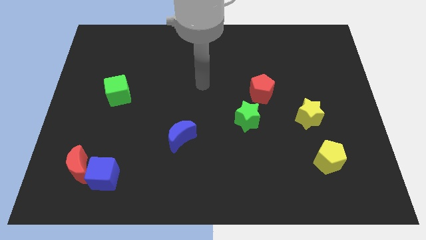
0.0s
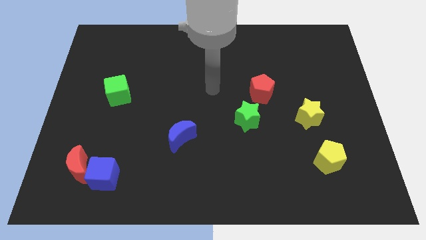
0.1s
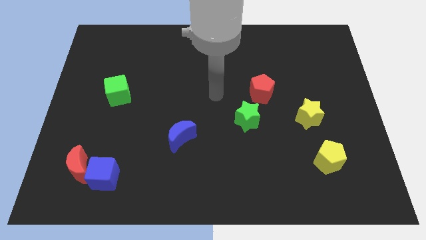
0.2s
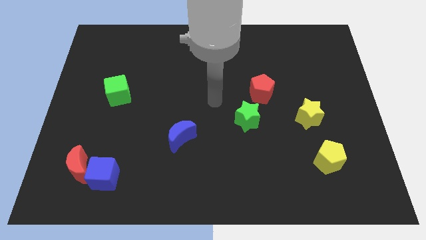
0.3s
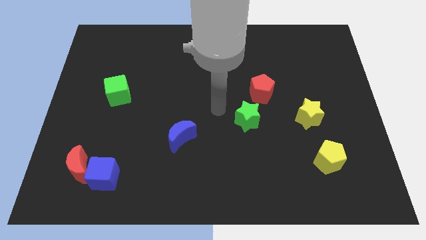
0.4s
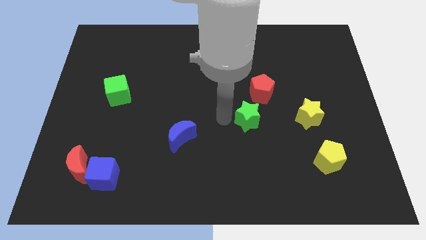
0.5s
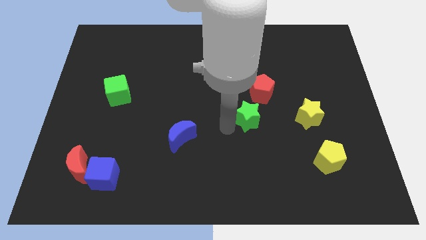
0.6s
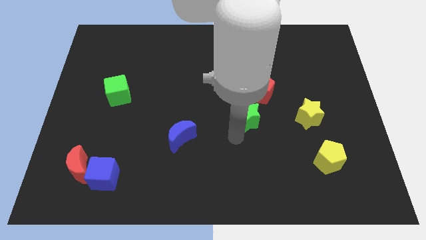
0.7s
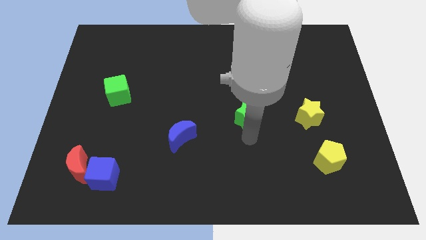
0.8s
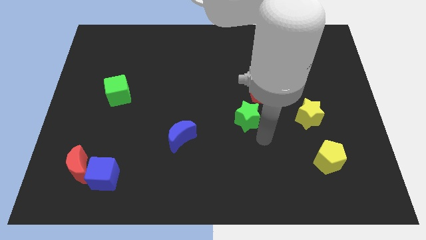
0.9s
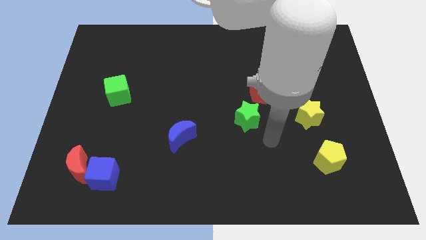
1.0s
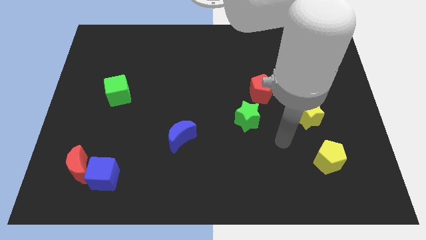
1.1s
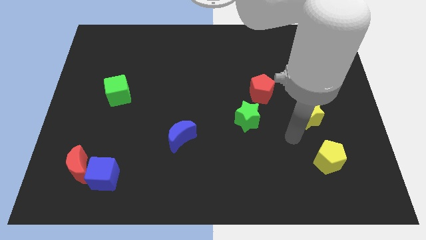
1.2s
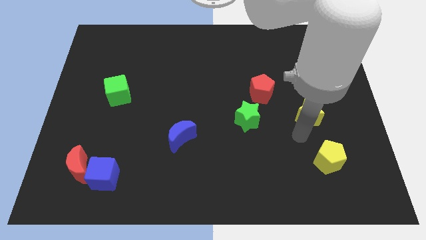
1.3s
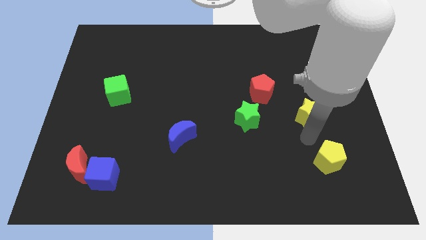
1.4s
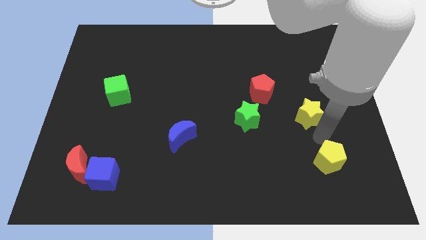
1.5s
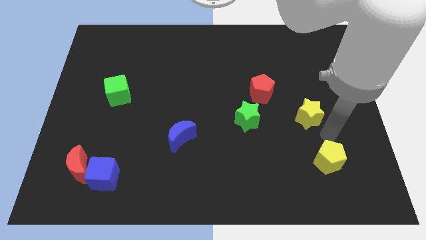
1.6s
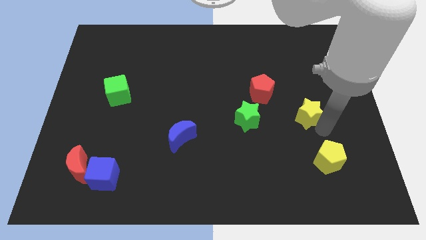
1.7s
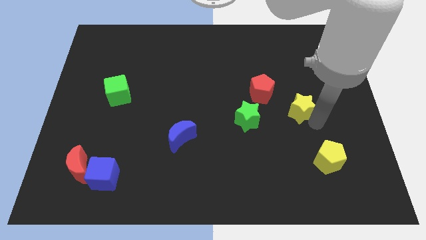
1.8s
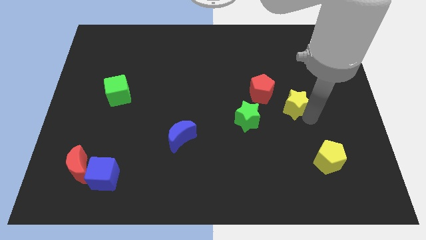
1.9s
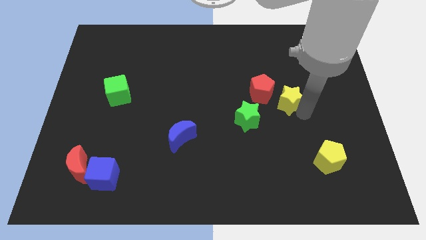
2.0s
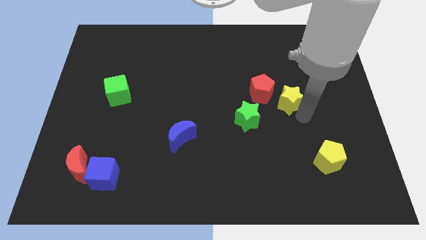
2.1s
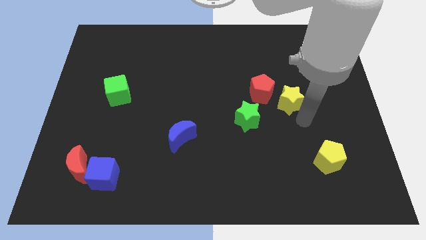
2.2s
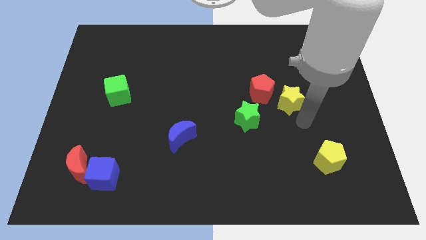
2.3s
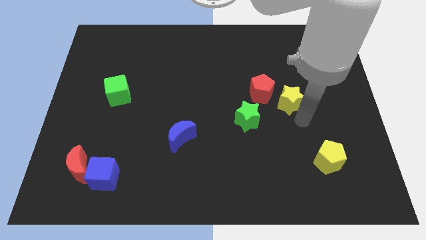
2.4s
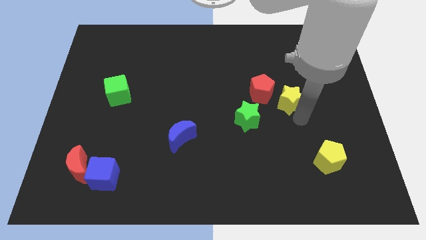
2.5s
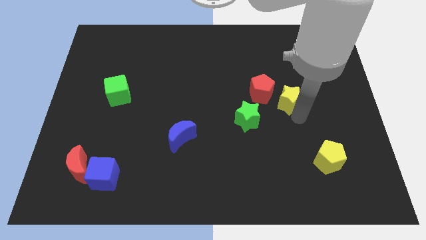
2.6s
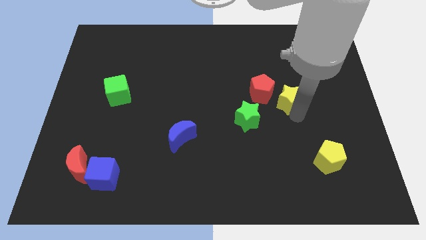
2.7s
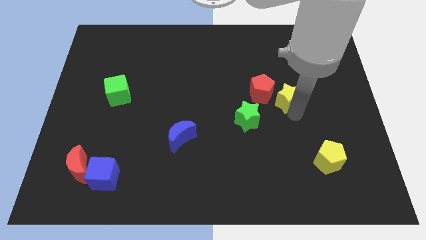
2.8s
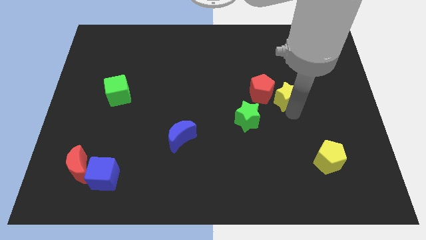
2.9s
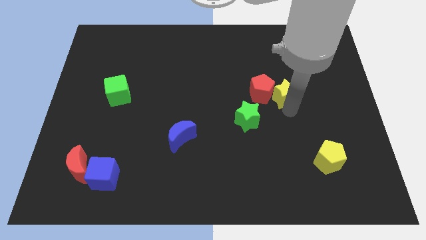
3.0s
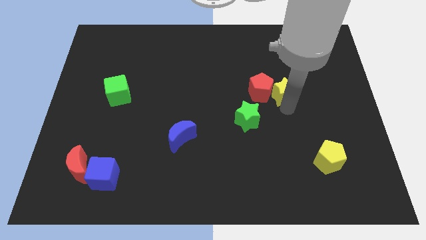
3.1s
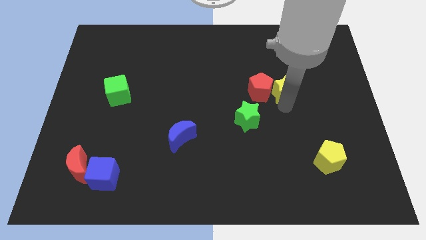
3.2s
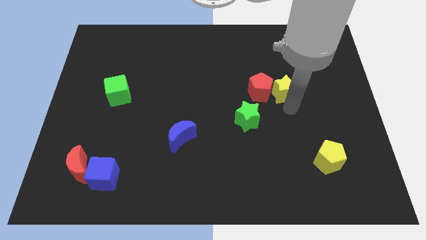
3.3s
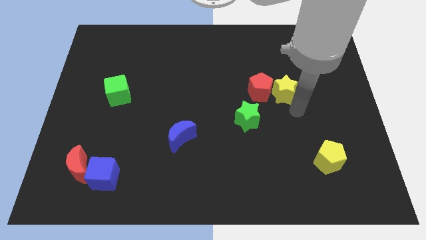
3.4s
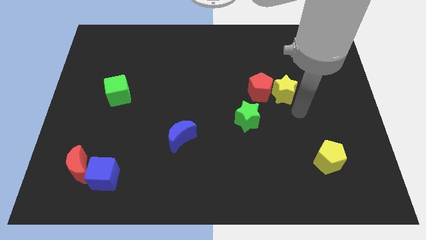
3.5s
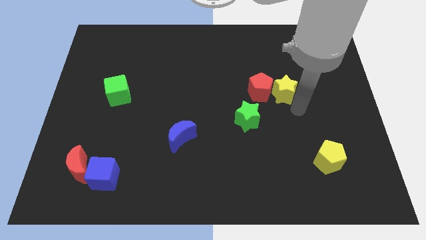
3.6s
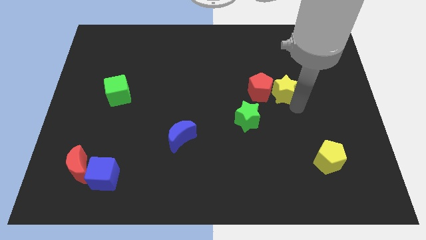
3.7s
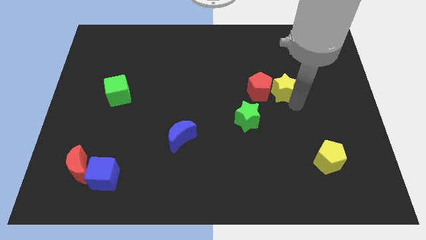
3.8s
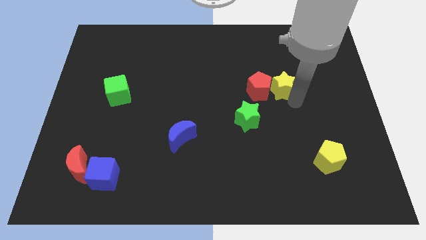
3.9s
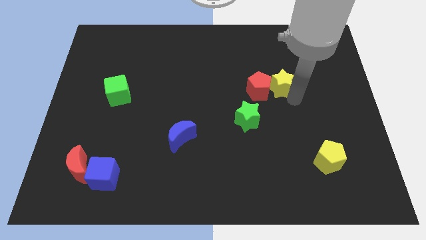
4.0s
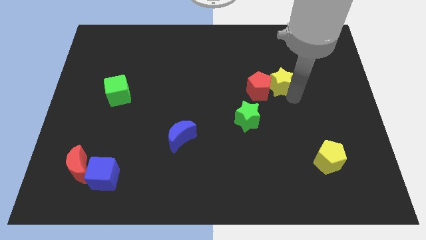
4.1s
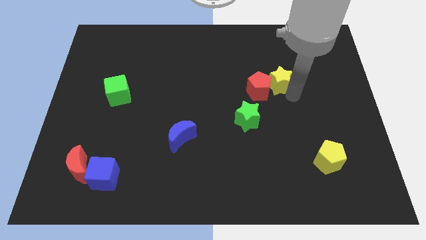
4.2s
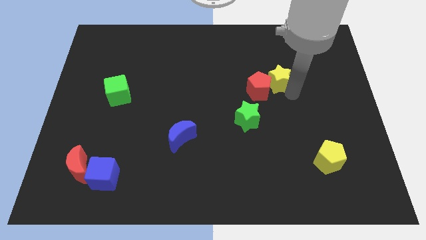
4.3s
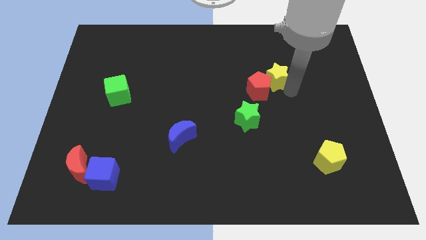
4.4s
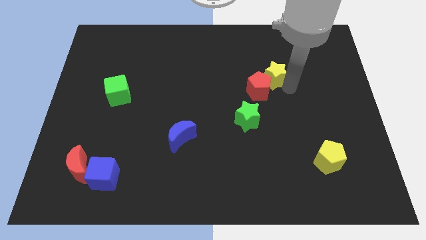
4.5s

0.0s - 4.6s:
push the yellow star above the red pentagon

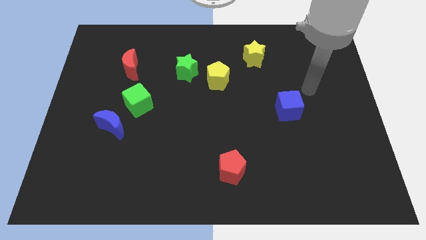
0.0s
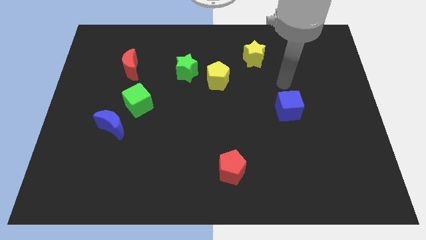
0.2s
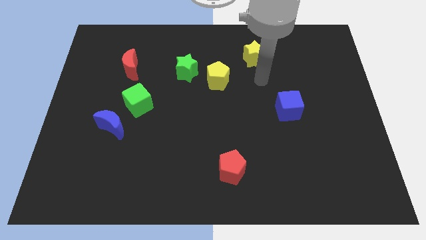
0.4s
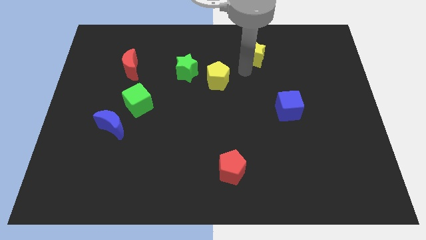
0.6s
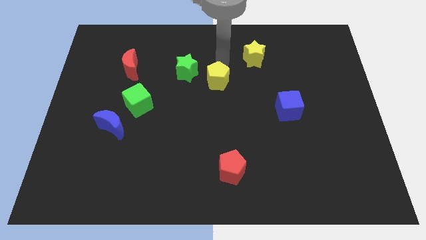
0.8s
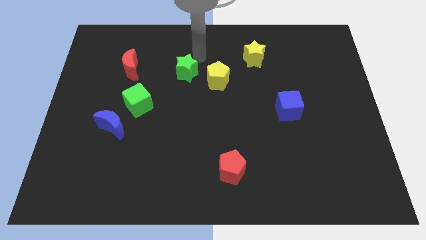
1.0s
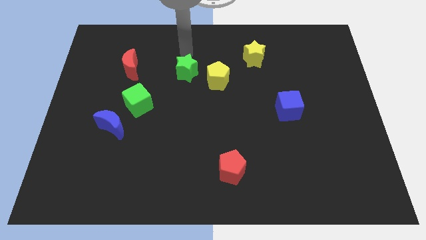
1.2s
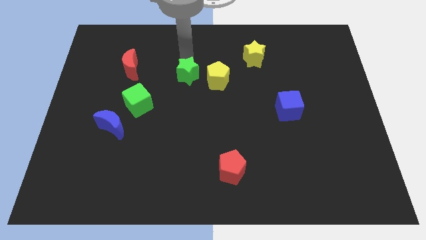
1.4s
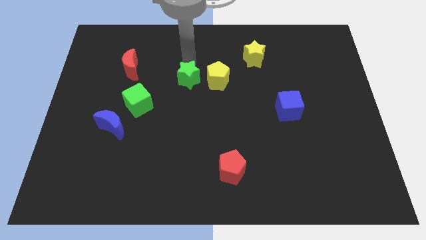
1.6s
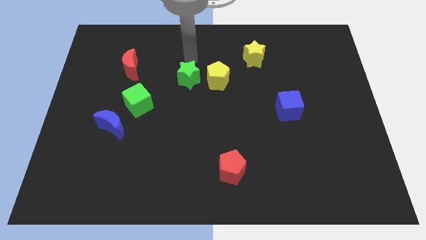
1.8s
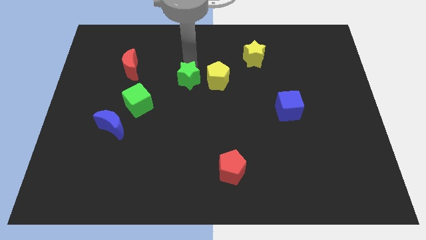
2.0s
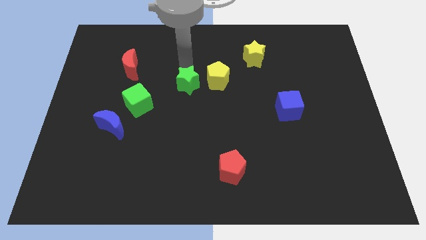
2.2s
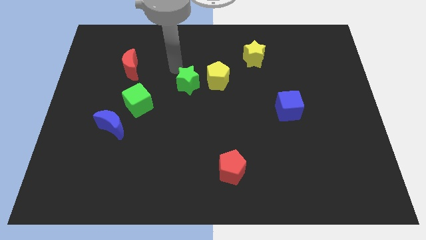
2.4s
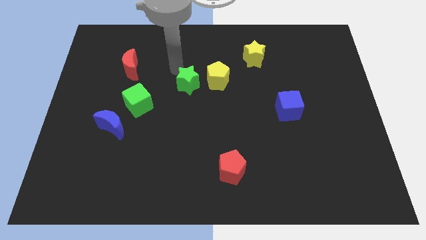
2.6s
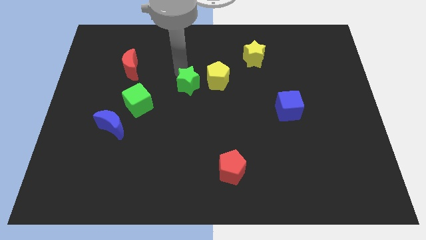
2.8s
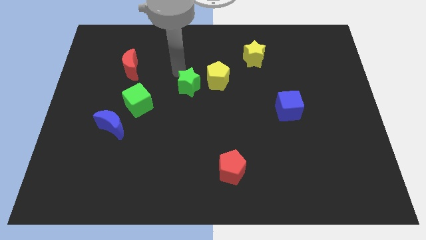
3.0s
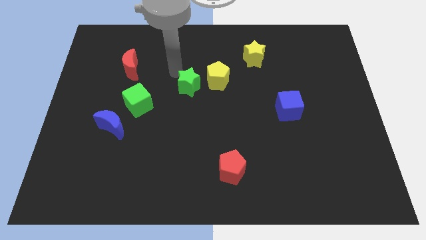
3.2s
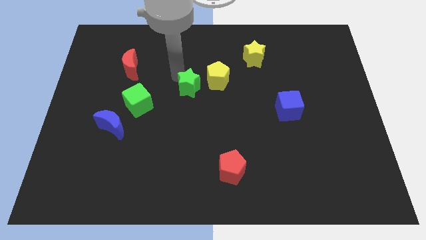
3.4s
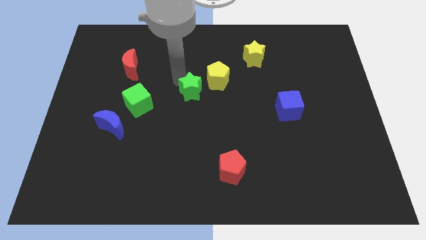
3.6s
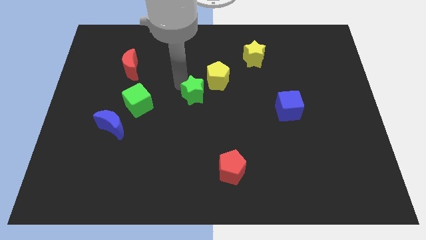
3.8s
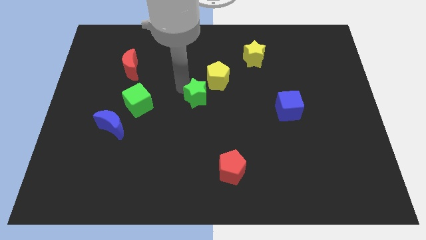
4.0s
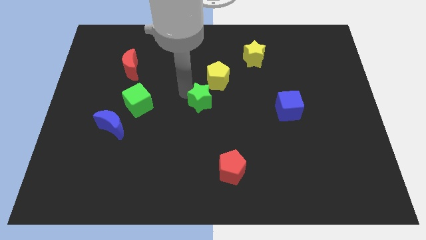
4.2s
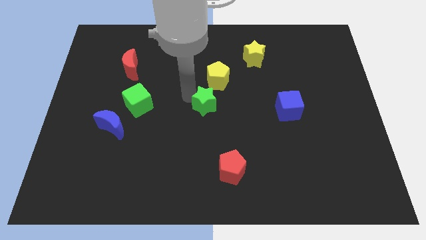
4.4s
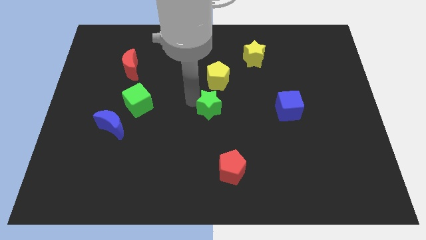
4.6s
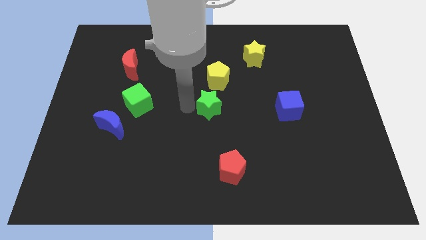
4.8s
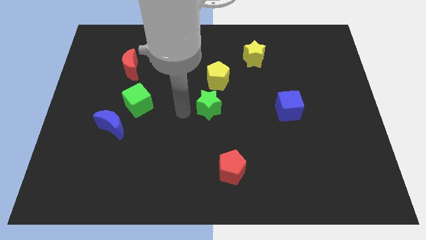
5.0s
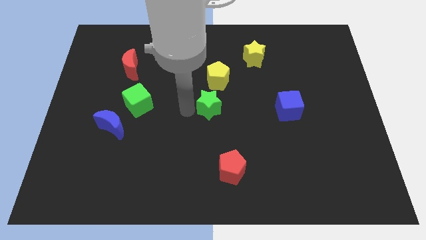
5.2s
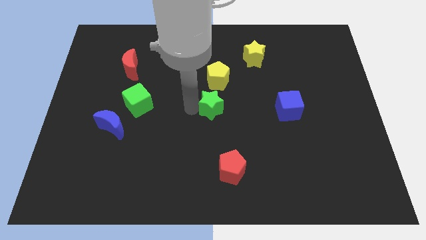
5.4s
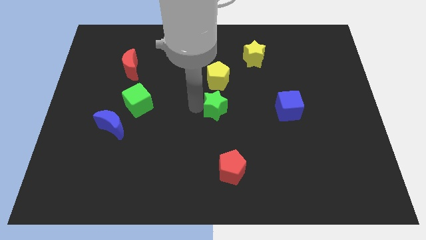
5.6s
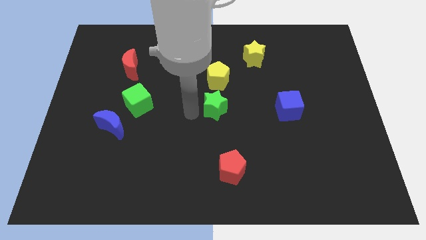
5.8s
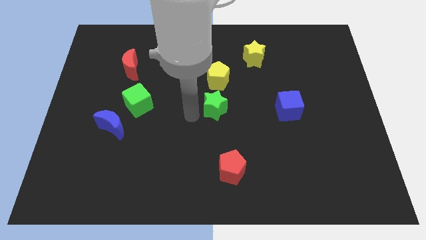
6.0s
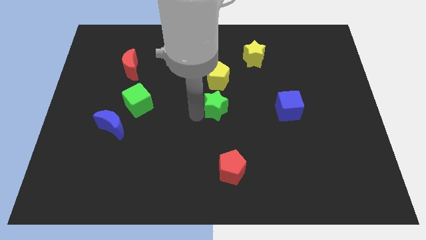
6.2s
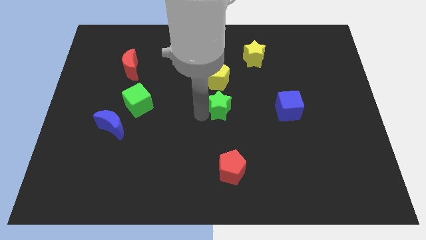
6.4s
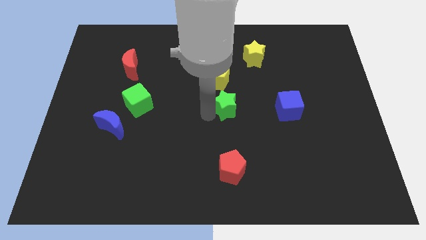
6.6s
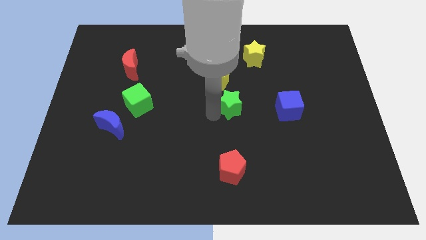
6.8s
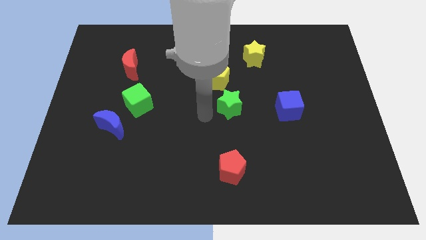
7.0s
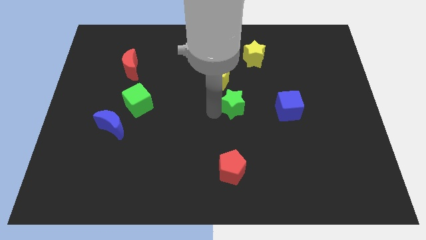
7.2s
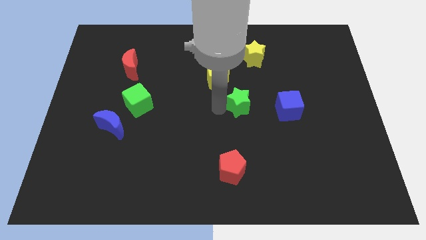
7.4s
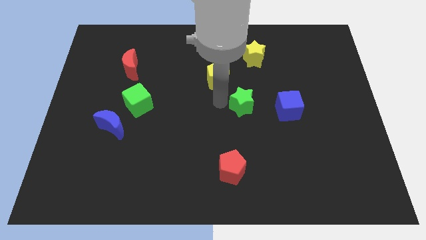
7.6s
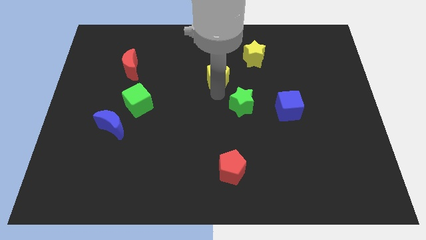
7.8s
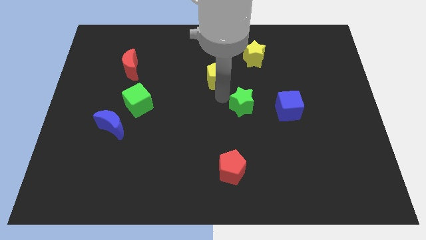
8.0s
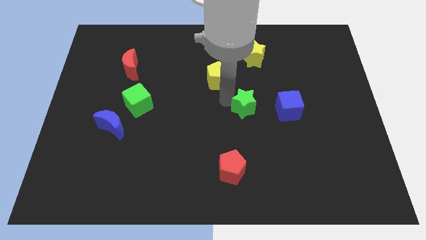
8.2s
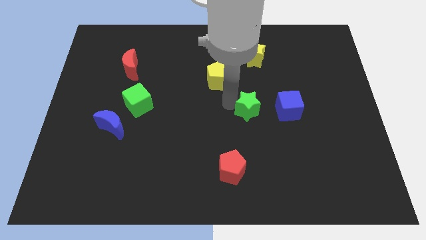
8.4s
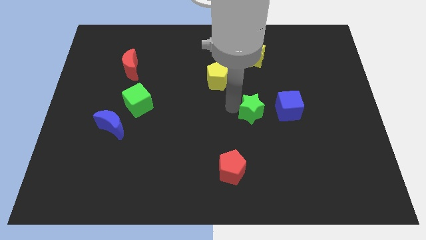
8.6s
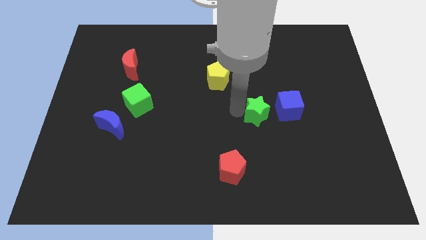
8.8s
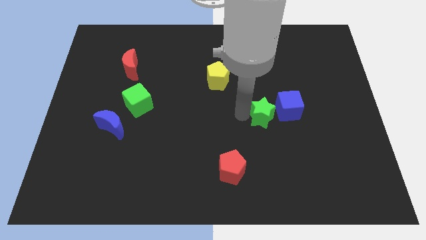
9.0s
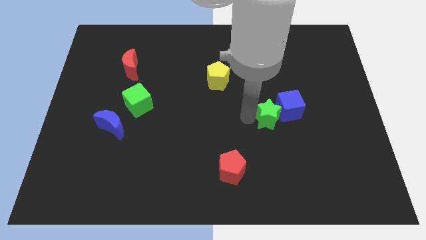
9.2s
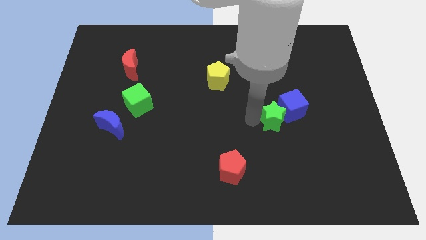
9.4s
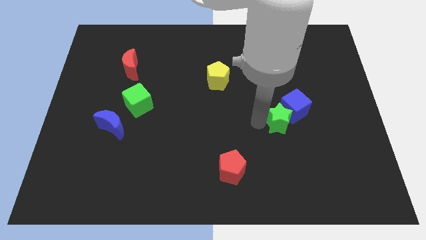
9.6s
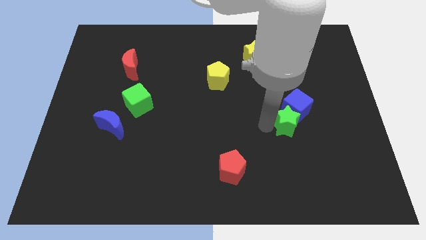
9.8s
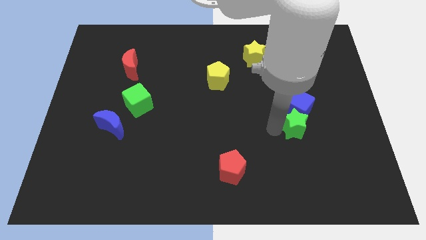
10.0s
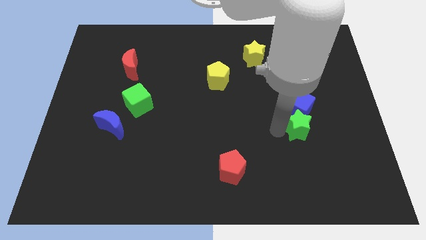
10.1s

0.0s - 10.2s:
move the green star diagonally down and to the right of the blue cube
